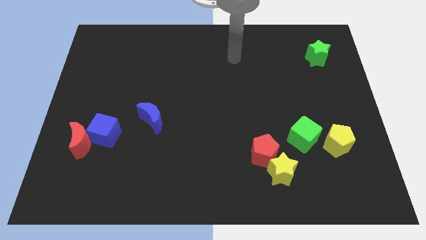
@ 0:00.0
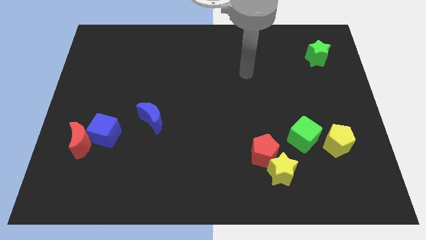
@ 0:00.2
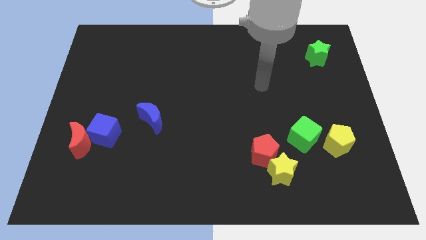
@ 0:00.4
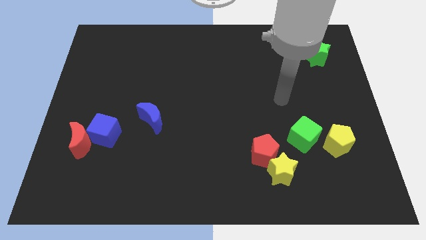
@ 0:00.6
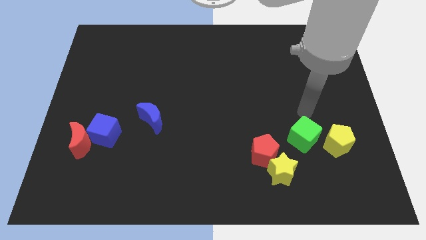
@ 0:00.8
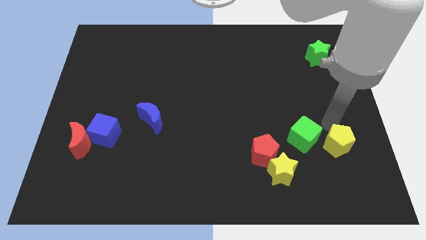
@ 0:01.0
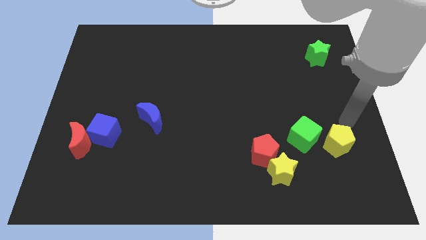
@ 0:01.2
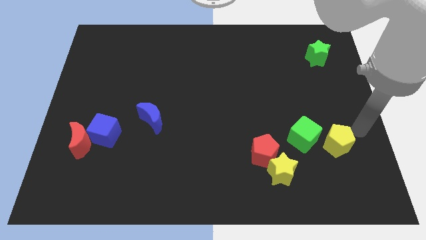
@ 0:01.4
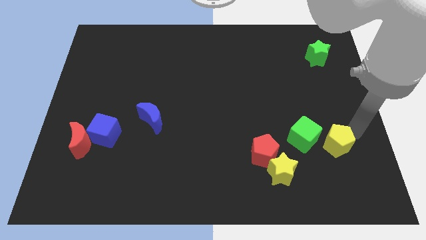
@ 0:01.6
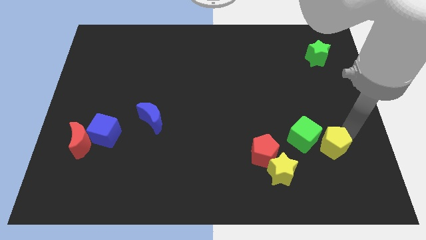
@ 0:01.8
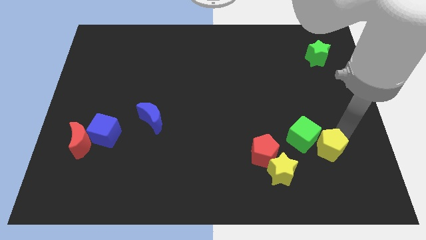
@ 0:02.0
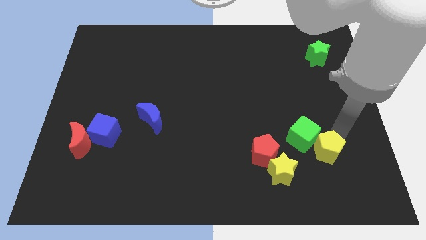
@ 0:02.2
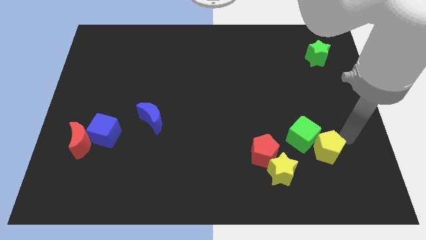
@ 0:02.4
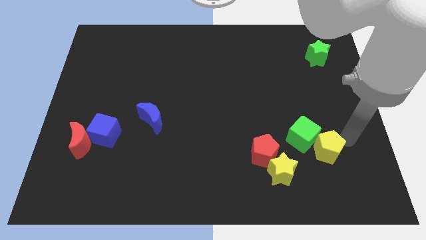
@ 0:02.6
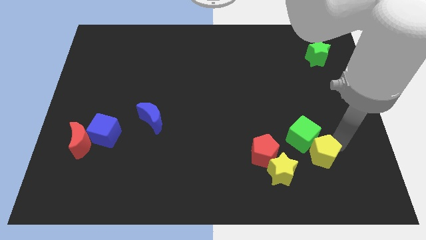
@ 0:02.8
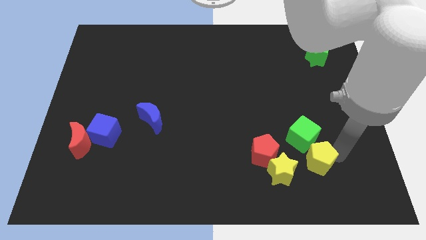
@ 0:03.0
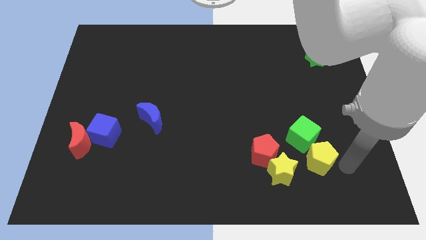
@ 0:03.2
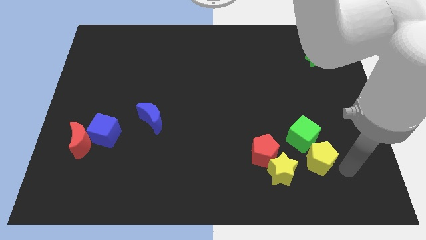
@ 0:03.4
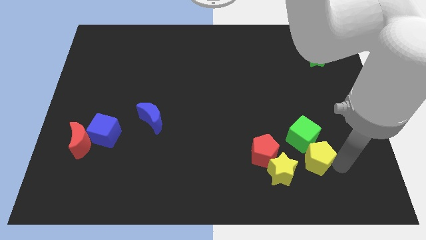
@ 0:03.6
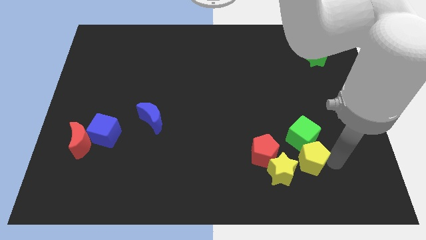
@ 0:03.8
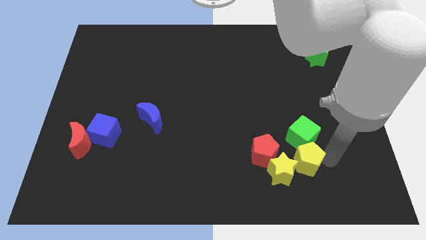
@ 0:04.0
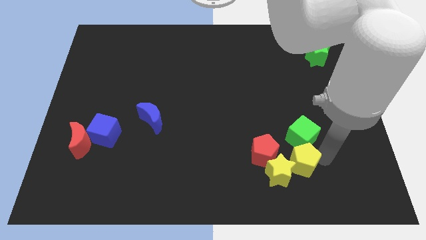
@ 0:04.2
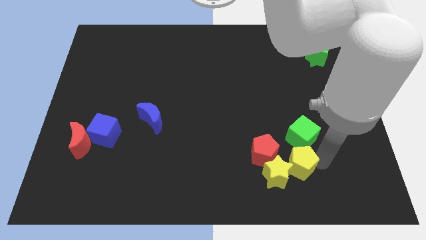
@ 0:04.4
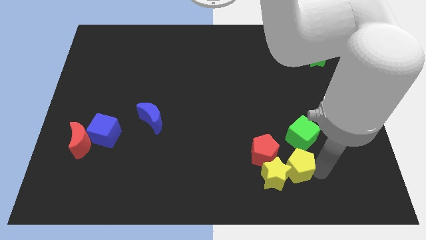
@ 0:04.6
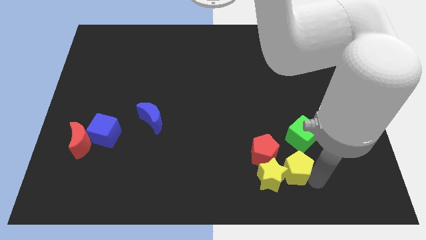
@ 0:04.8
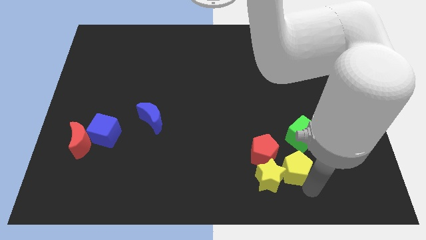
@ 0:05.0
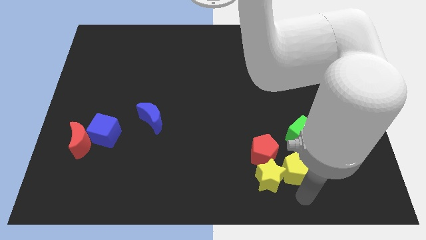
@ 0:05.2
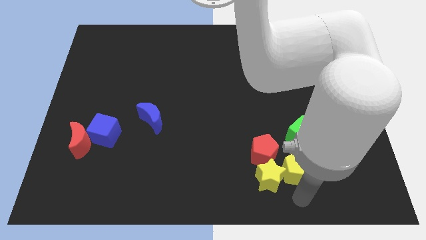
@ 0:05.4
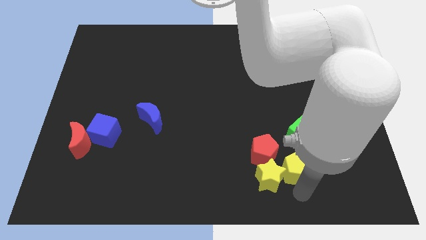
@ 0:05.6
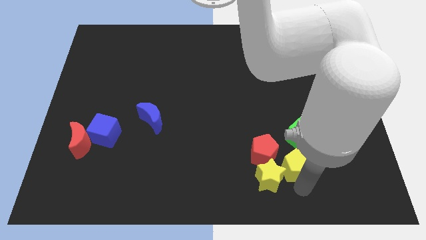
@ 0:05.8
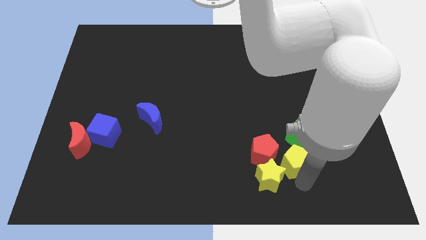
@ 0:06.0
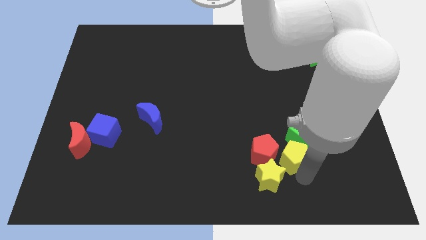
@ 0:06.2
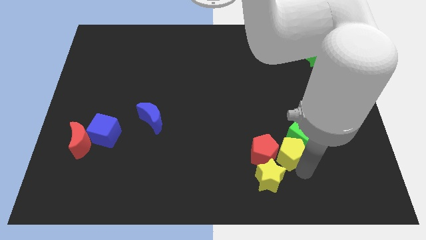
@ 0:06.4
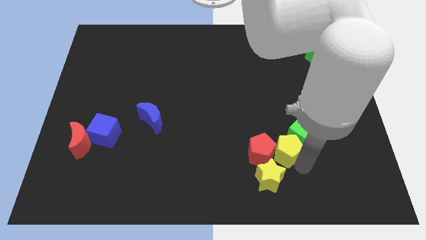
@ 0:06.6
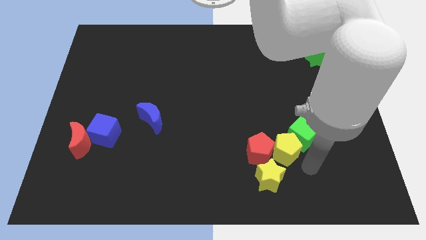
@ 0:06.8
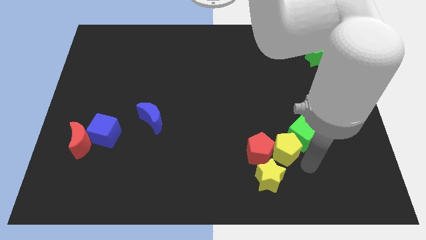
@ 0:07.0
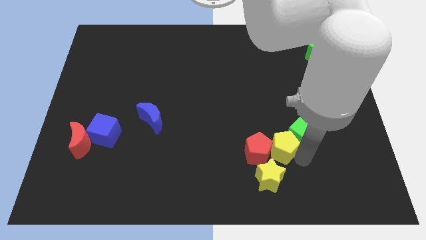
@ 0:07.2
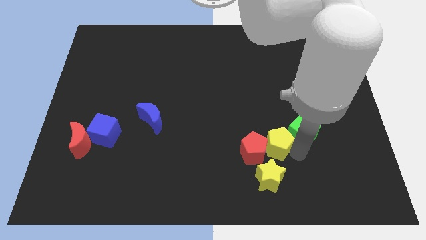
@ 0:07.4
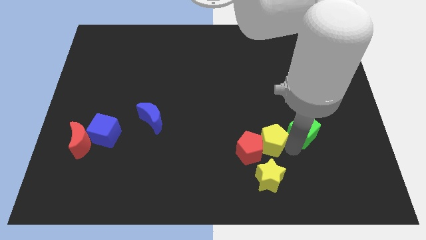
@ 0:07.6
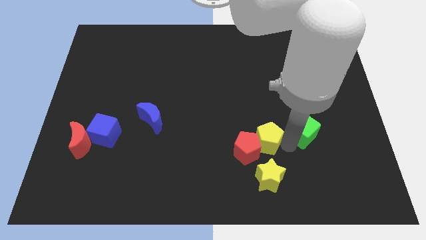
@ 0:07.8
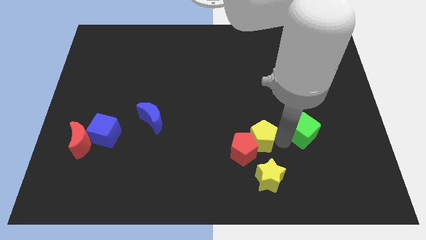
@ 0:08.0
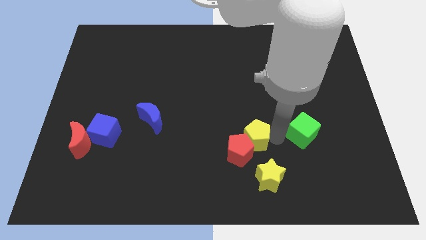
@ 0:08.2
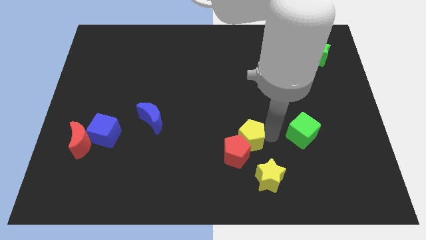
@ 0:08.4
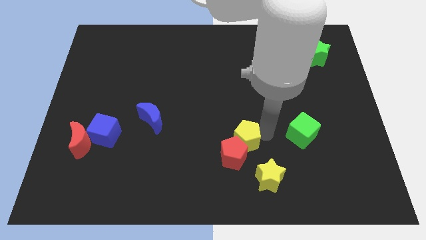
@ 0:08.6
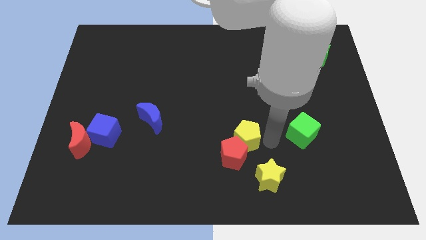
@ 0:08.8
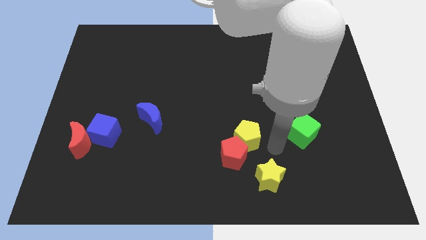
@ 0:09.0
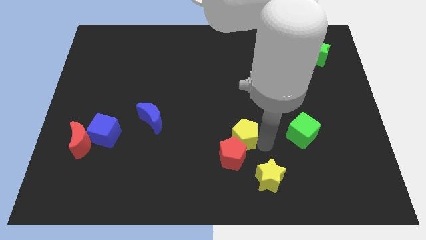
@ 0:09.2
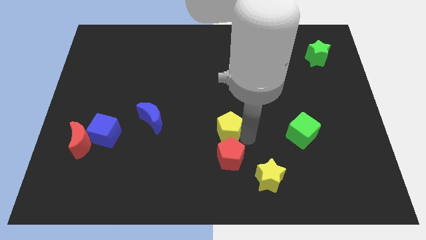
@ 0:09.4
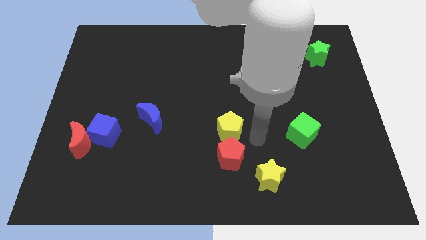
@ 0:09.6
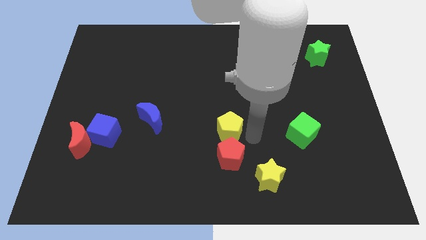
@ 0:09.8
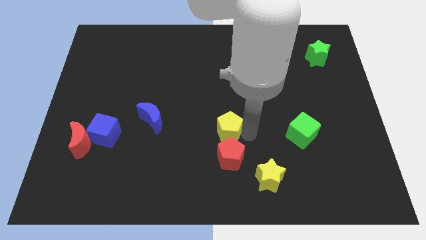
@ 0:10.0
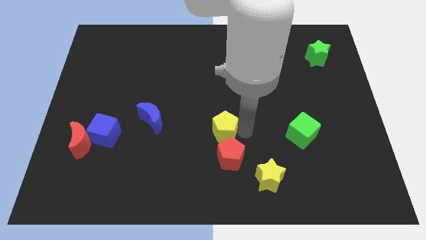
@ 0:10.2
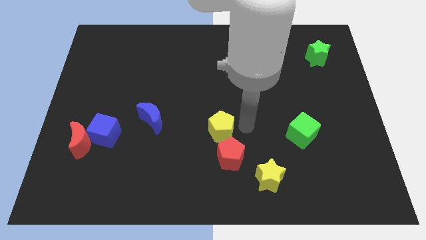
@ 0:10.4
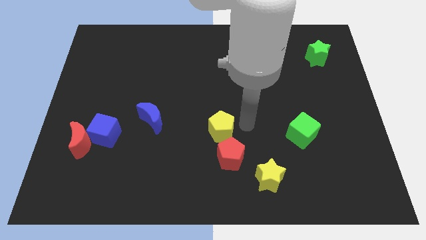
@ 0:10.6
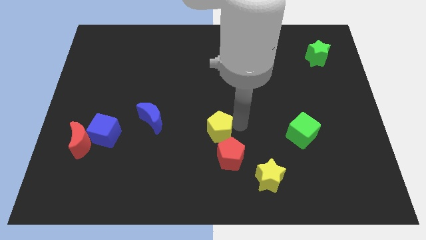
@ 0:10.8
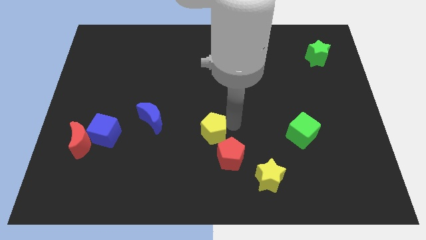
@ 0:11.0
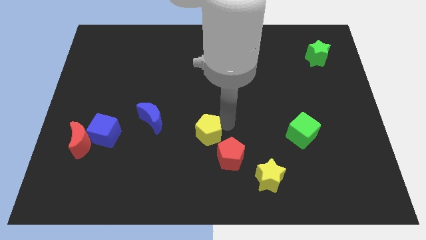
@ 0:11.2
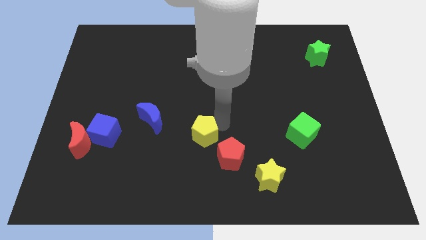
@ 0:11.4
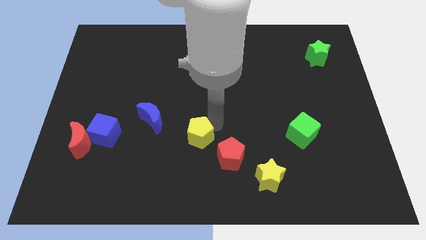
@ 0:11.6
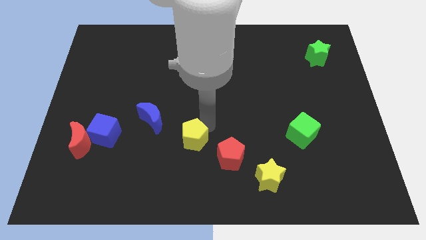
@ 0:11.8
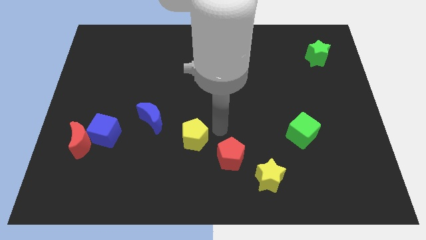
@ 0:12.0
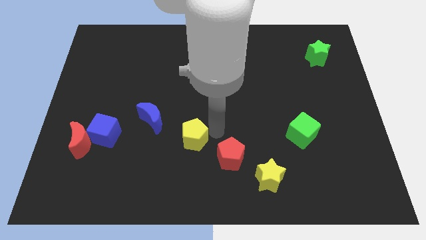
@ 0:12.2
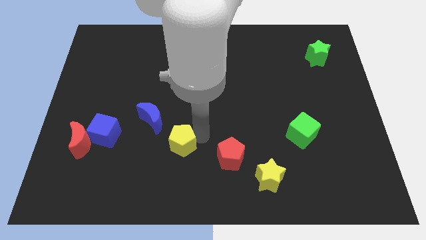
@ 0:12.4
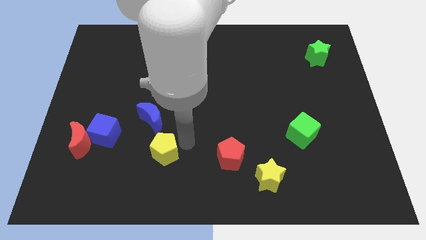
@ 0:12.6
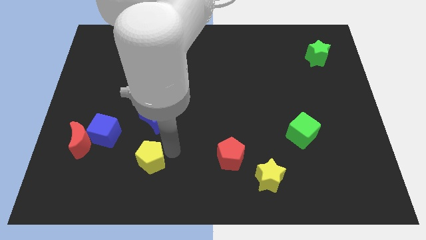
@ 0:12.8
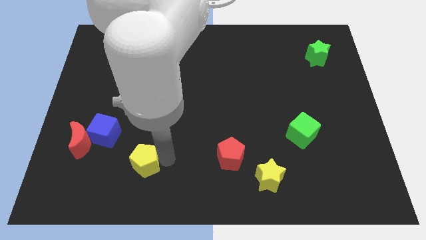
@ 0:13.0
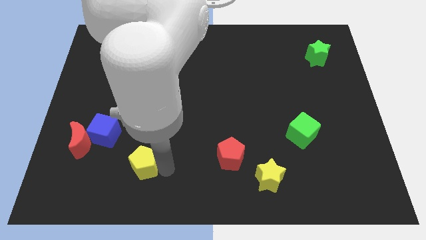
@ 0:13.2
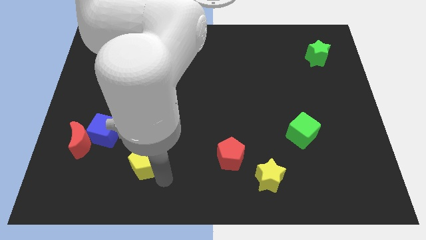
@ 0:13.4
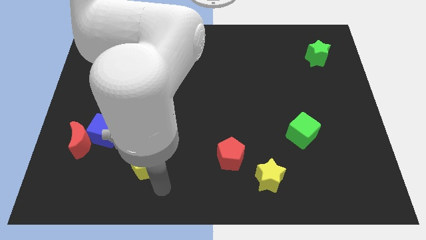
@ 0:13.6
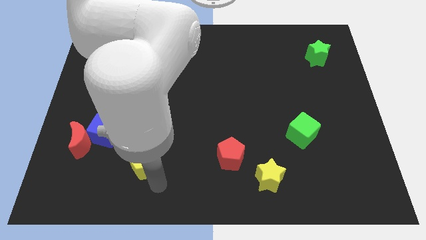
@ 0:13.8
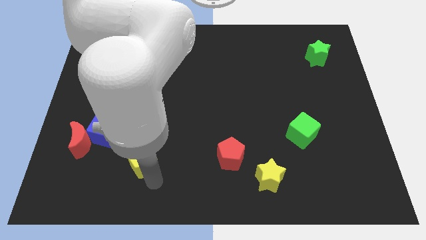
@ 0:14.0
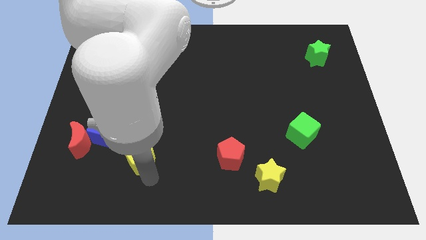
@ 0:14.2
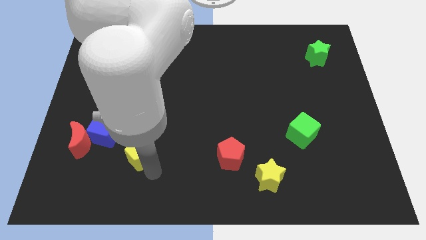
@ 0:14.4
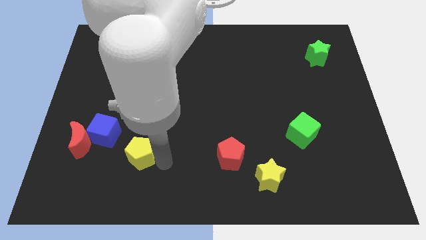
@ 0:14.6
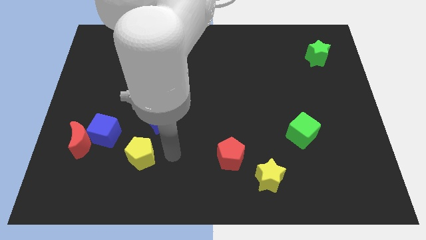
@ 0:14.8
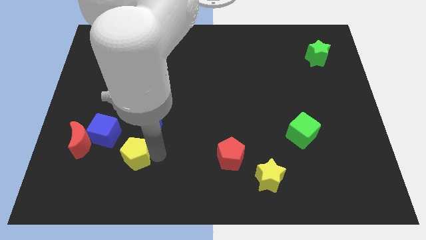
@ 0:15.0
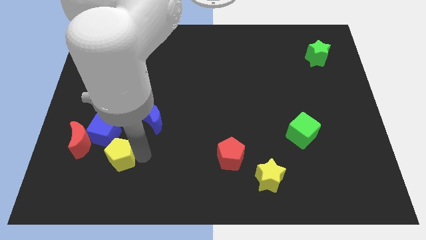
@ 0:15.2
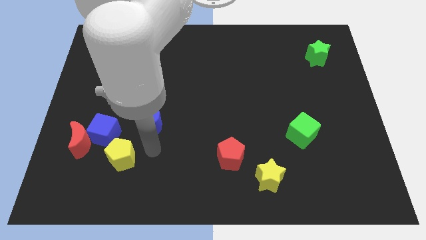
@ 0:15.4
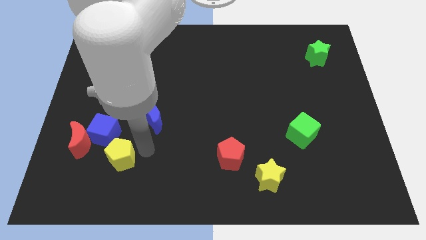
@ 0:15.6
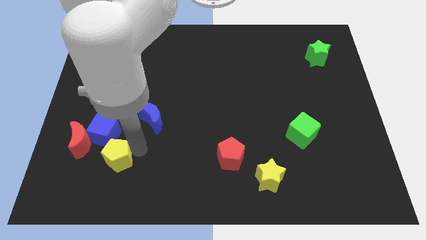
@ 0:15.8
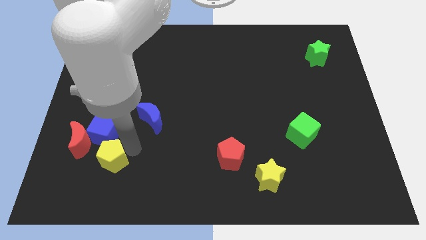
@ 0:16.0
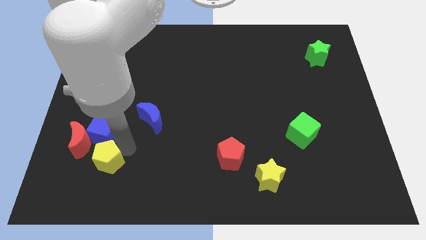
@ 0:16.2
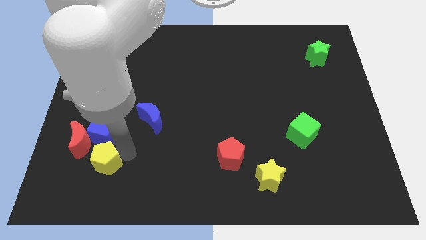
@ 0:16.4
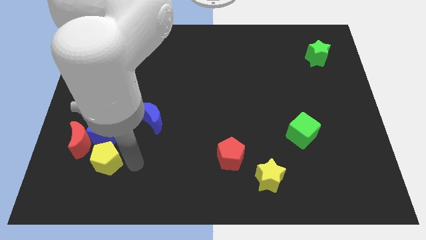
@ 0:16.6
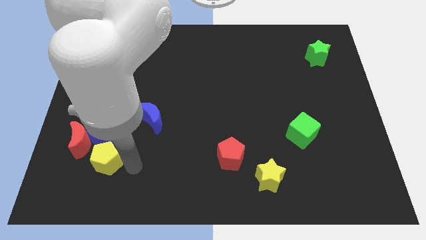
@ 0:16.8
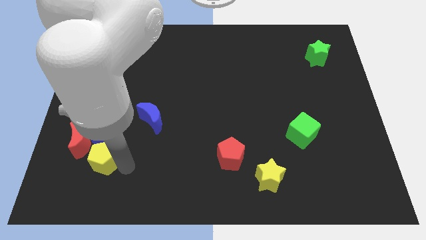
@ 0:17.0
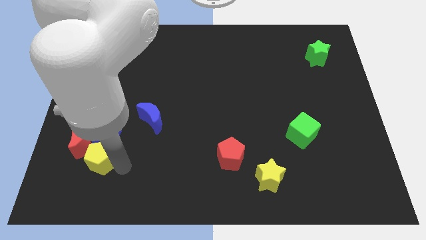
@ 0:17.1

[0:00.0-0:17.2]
push the yellow pentagon diagonally down and to the left of the blue cube
